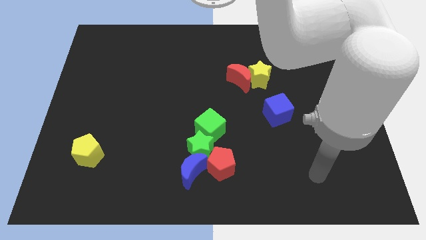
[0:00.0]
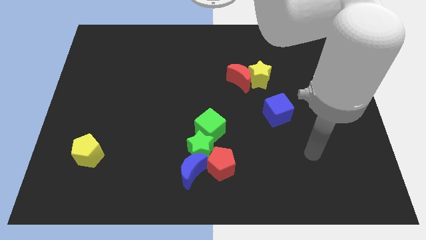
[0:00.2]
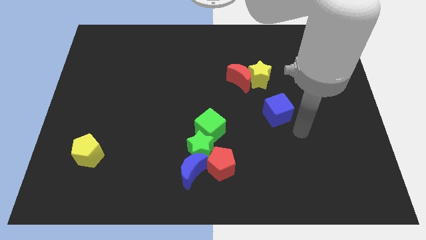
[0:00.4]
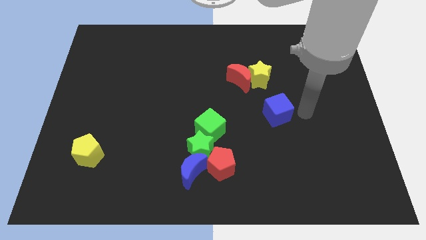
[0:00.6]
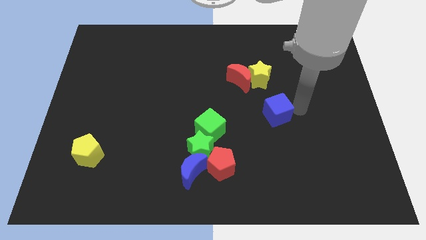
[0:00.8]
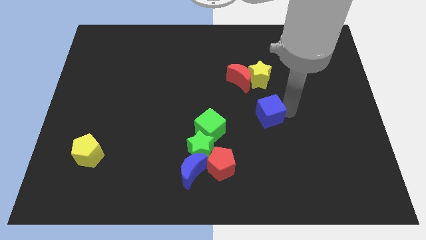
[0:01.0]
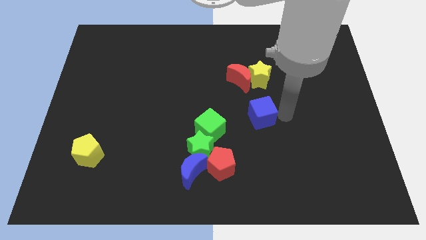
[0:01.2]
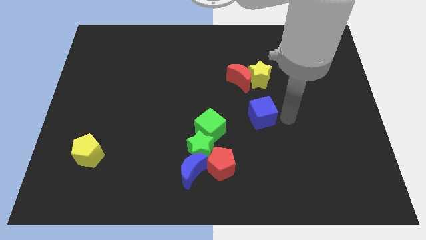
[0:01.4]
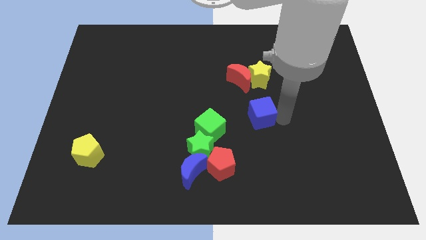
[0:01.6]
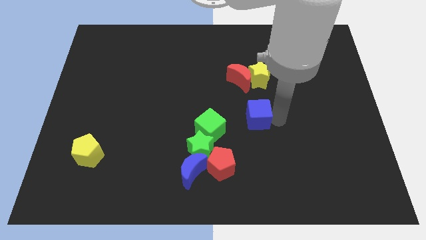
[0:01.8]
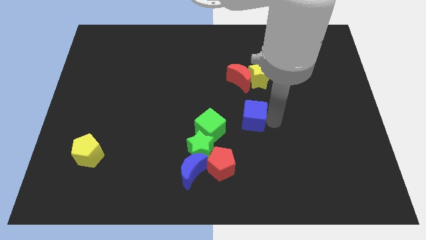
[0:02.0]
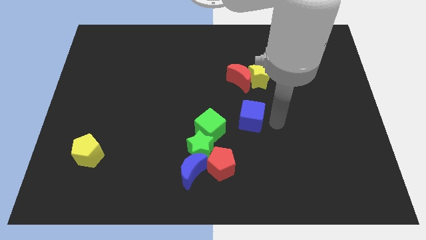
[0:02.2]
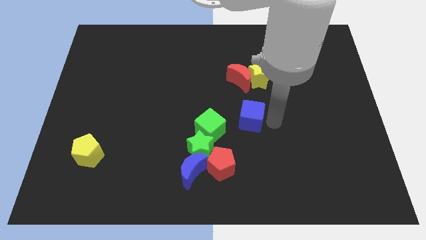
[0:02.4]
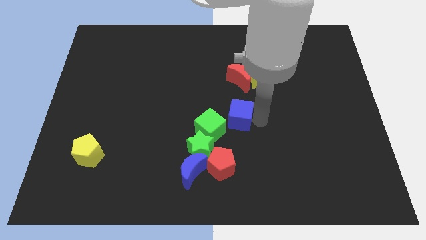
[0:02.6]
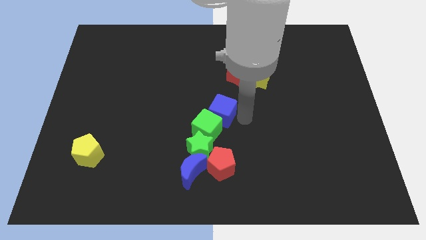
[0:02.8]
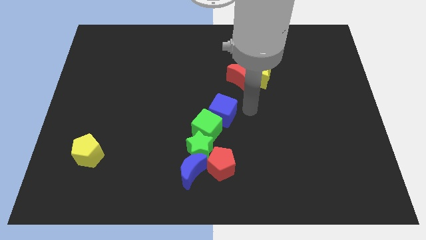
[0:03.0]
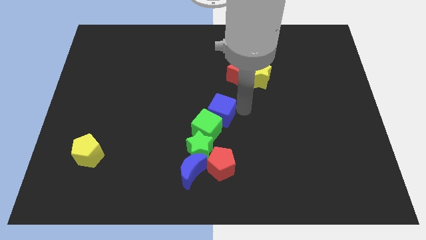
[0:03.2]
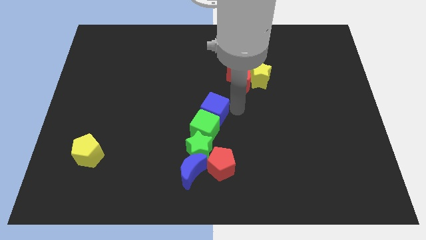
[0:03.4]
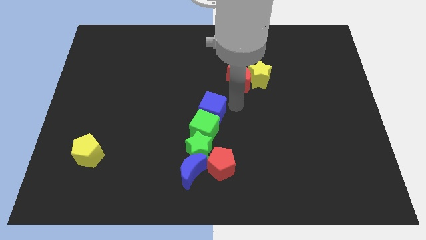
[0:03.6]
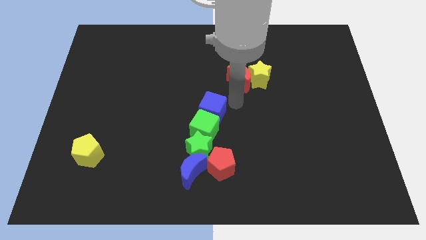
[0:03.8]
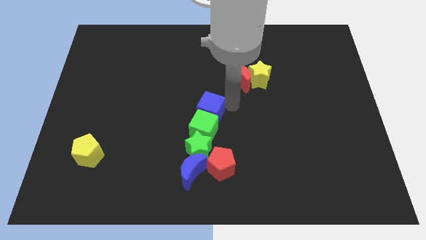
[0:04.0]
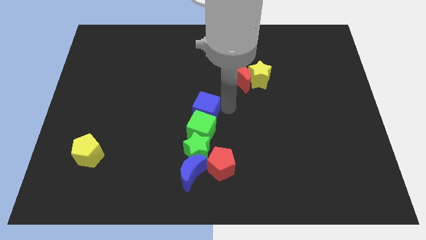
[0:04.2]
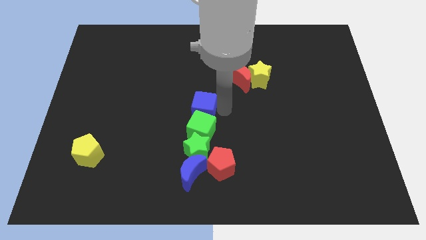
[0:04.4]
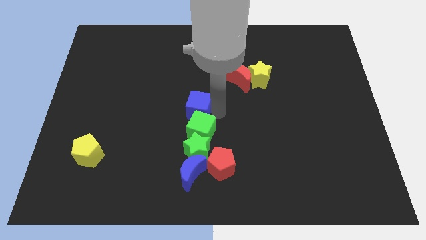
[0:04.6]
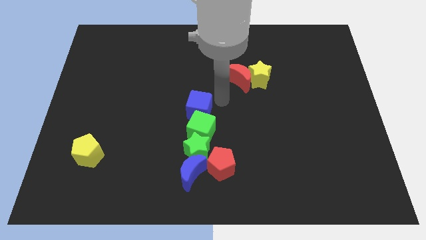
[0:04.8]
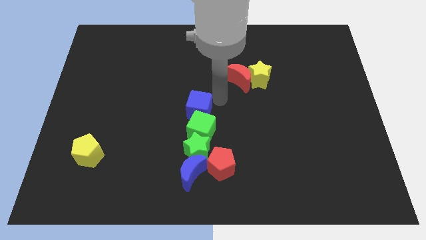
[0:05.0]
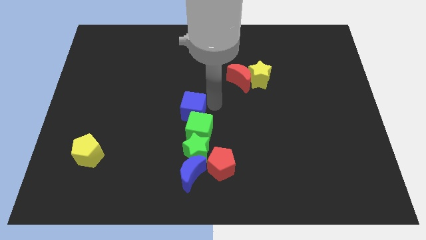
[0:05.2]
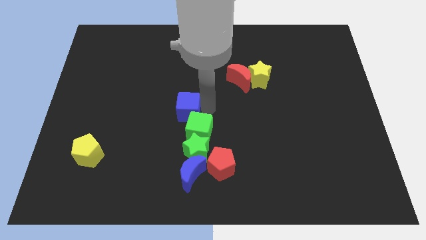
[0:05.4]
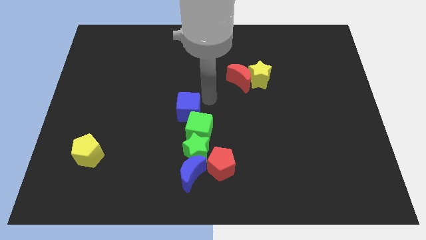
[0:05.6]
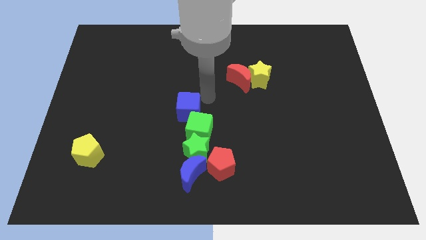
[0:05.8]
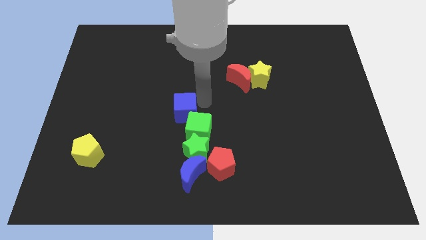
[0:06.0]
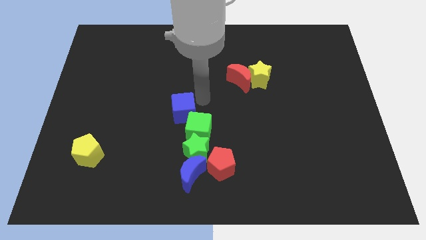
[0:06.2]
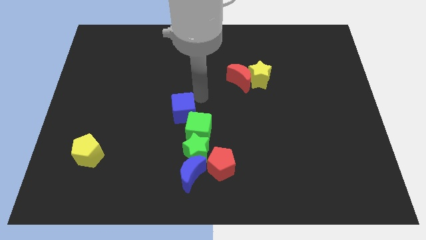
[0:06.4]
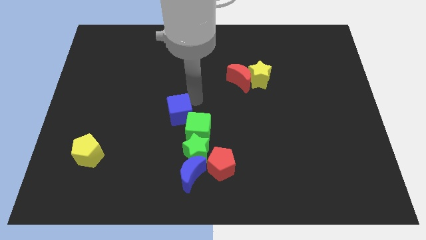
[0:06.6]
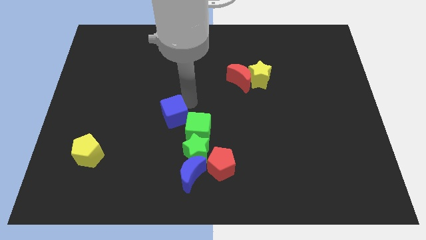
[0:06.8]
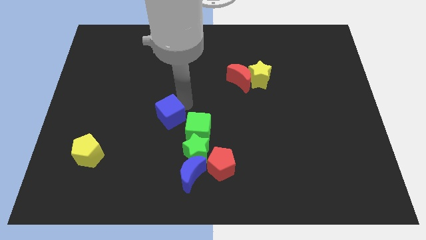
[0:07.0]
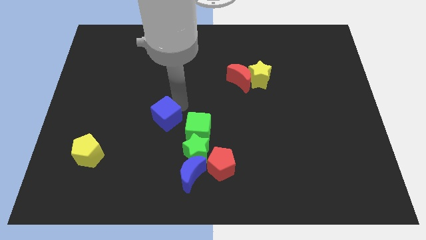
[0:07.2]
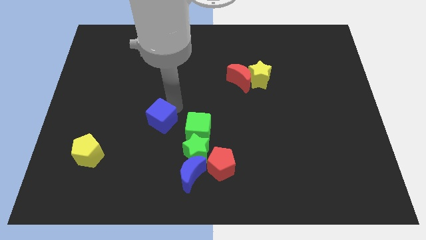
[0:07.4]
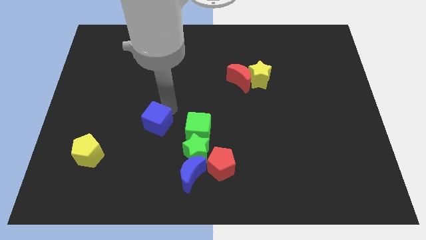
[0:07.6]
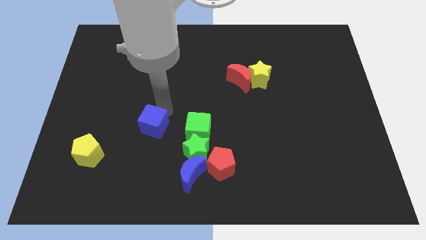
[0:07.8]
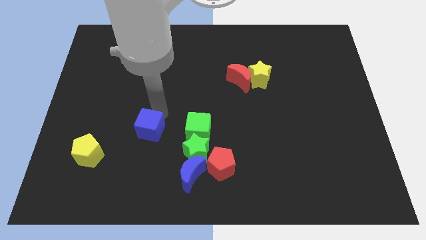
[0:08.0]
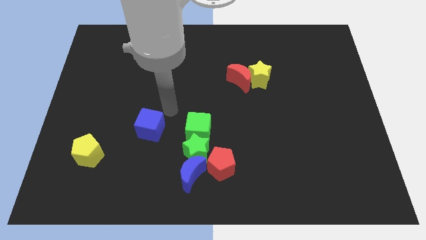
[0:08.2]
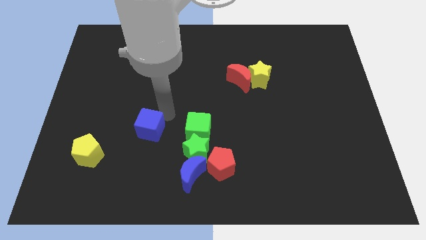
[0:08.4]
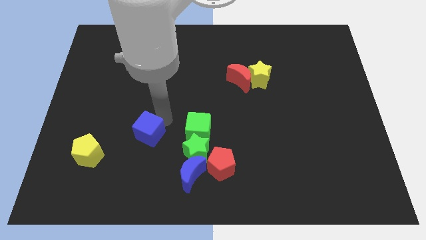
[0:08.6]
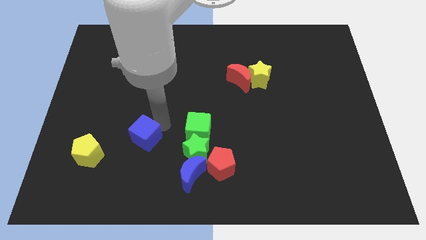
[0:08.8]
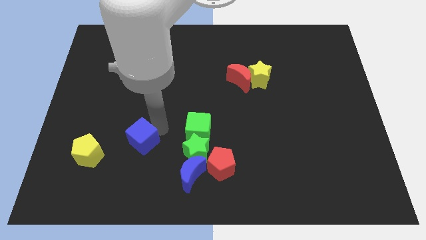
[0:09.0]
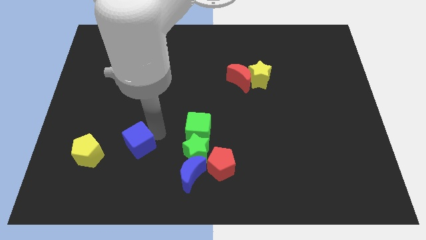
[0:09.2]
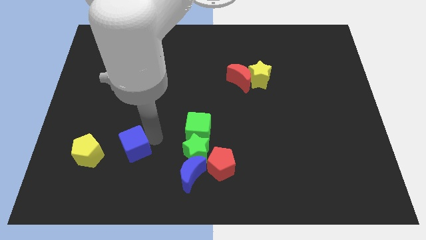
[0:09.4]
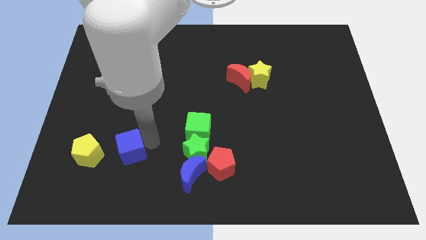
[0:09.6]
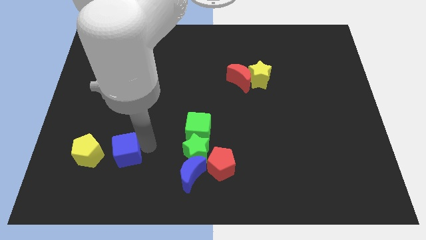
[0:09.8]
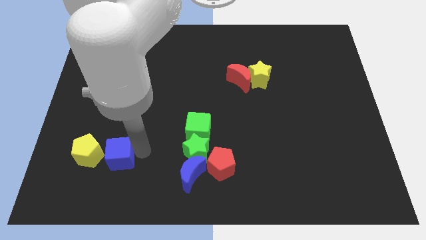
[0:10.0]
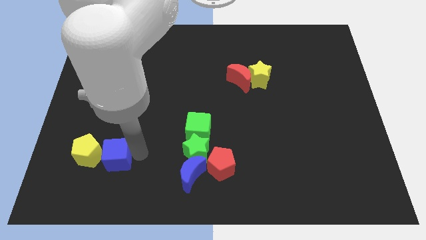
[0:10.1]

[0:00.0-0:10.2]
push the blue cube next to the yellow pentagon

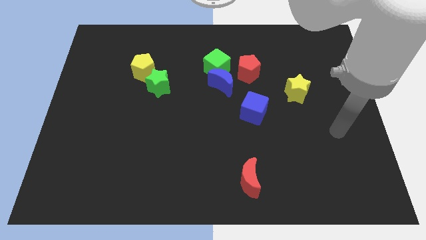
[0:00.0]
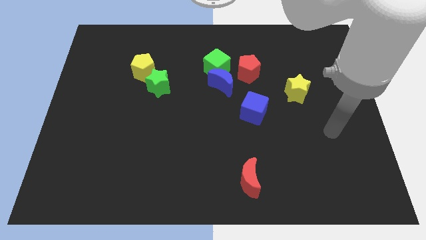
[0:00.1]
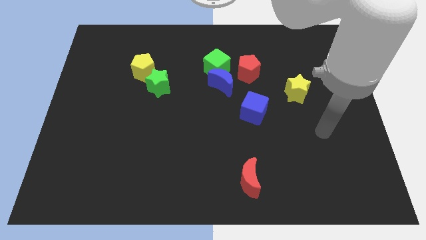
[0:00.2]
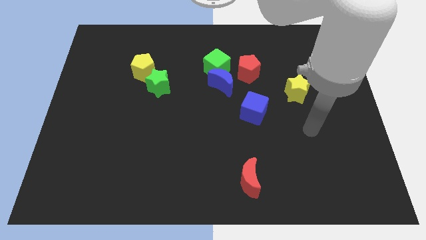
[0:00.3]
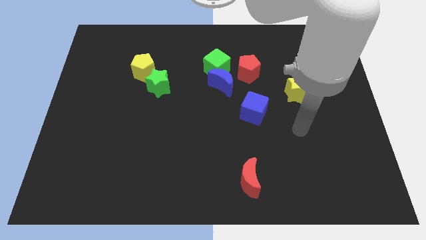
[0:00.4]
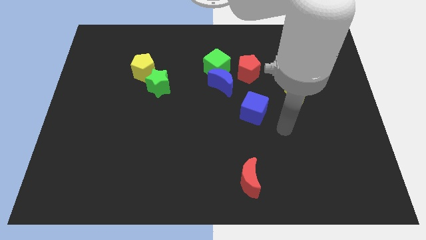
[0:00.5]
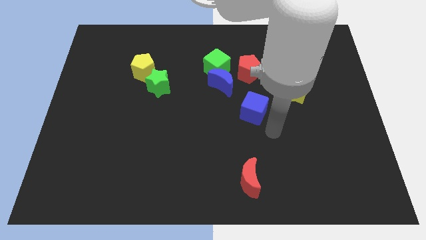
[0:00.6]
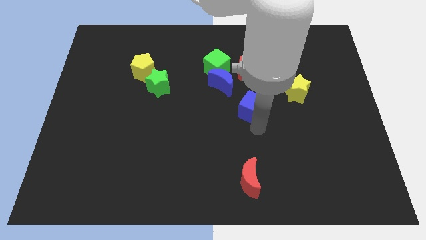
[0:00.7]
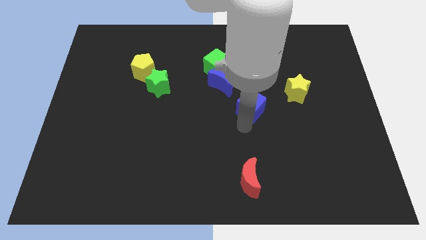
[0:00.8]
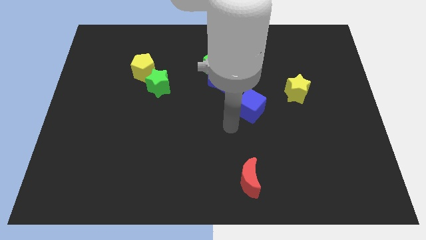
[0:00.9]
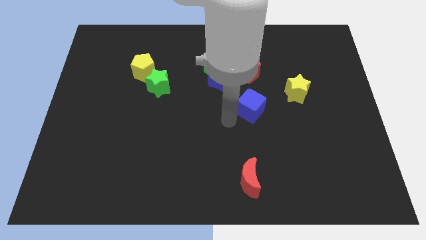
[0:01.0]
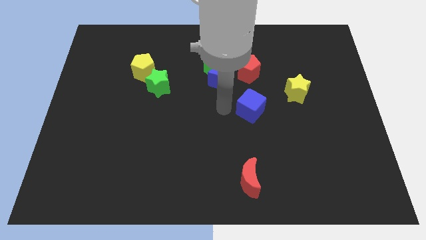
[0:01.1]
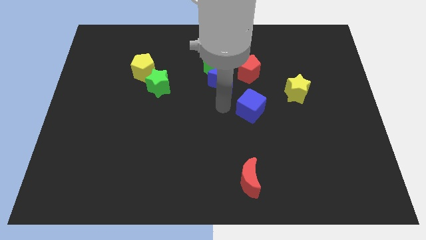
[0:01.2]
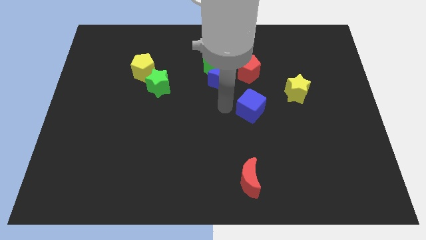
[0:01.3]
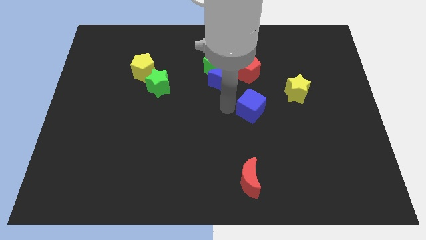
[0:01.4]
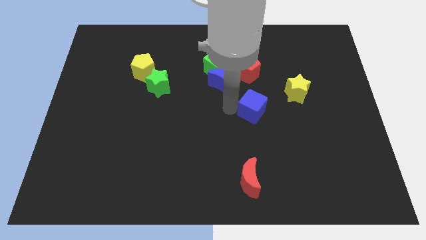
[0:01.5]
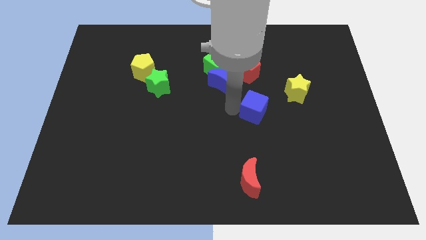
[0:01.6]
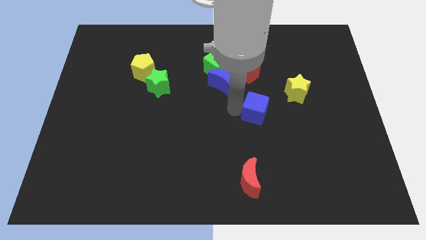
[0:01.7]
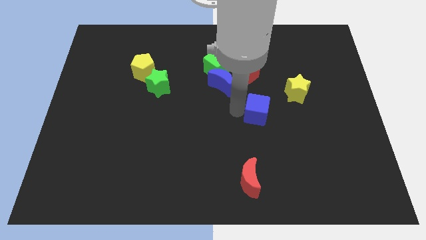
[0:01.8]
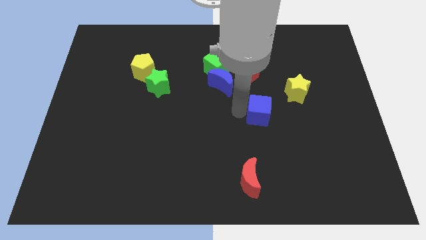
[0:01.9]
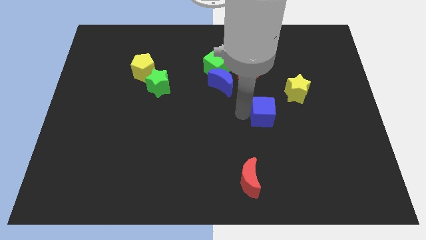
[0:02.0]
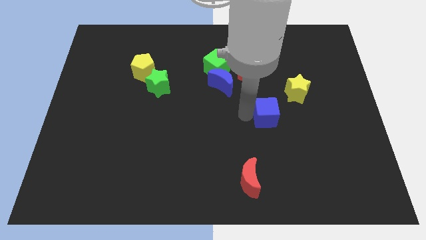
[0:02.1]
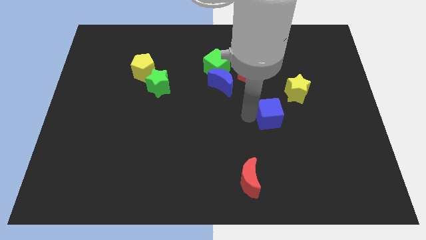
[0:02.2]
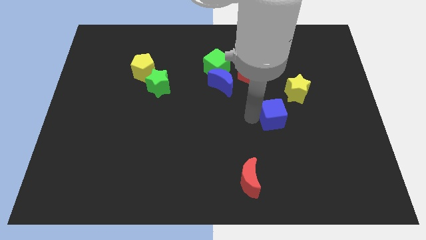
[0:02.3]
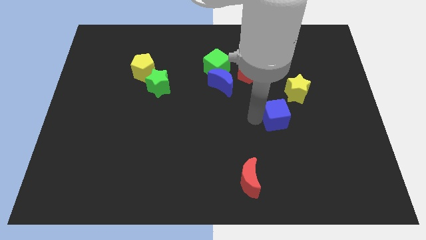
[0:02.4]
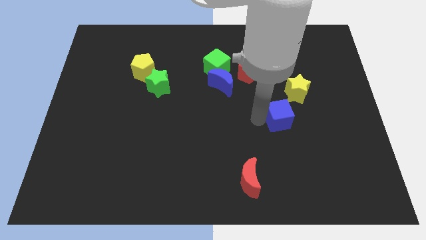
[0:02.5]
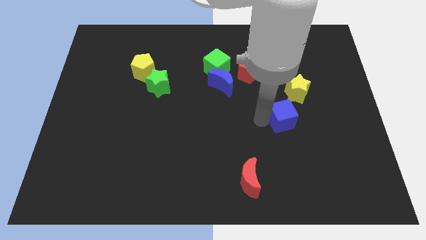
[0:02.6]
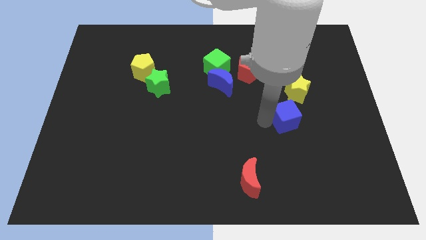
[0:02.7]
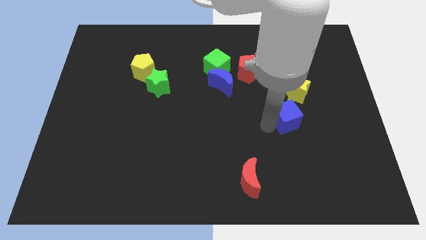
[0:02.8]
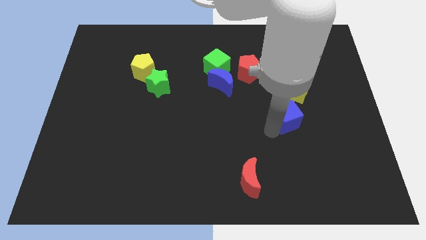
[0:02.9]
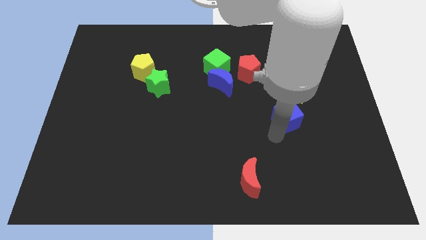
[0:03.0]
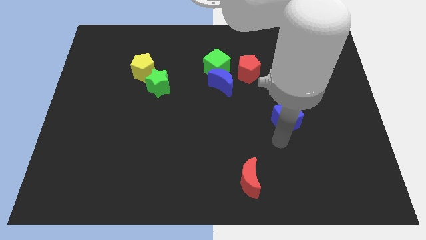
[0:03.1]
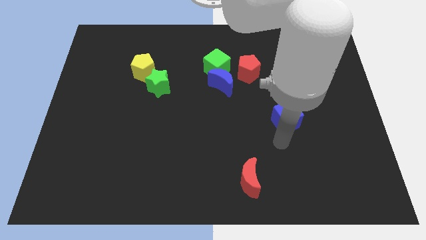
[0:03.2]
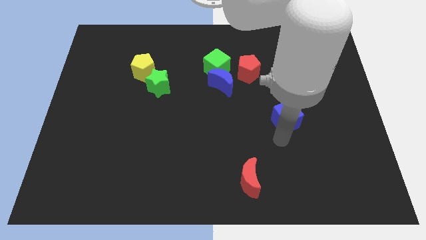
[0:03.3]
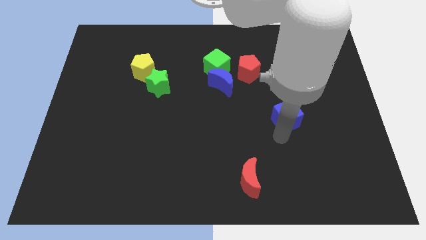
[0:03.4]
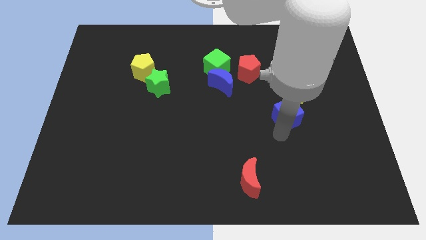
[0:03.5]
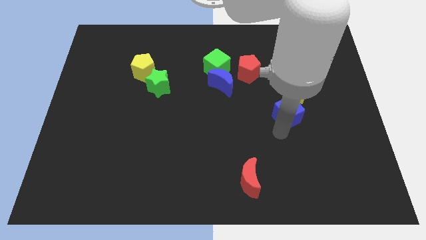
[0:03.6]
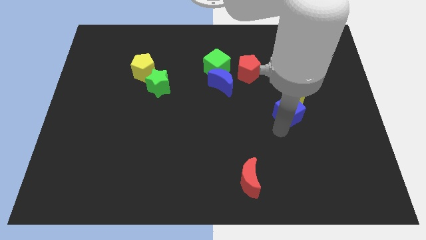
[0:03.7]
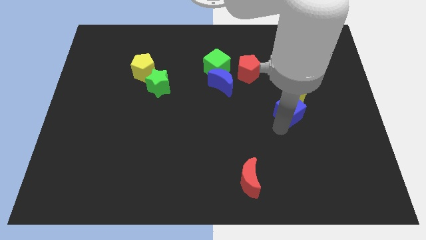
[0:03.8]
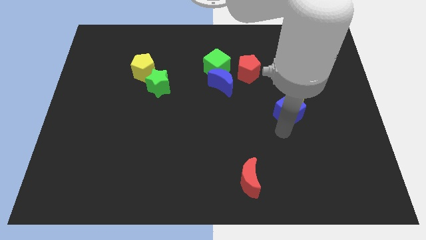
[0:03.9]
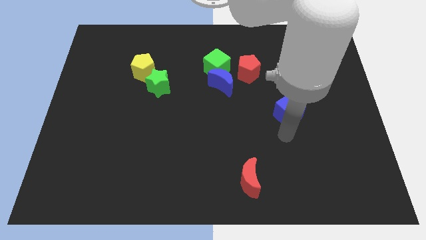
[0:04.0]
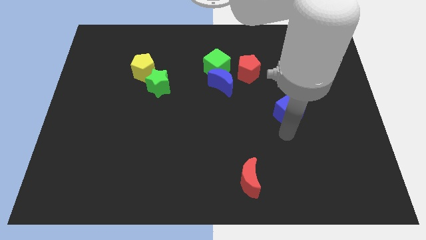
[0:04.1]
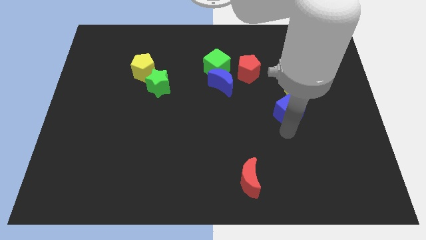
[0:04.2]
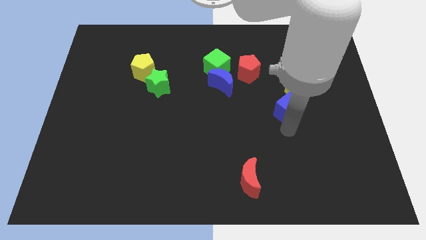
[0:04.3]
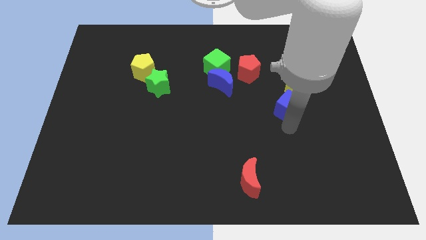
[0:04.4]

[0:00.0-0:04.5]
slide the blue cube next to the yellow star
